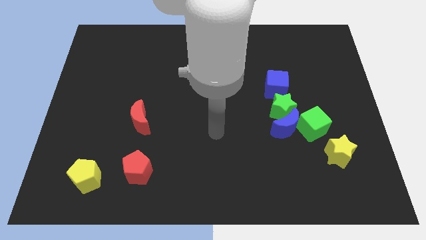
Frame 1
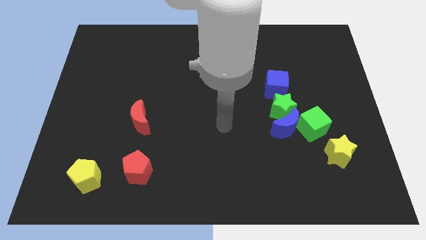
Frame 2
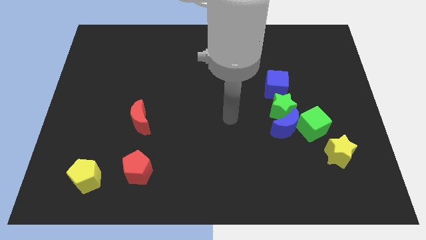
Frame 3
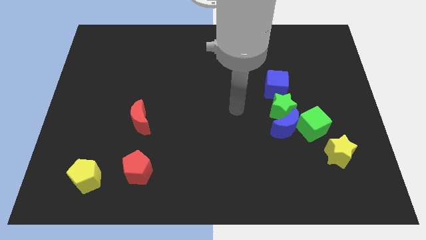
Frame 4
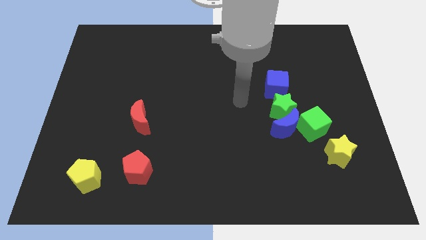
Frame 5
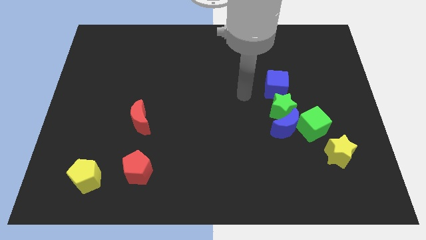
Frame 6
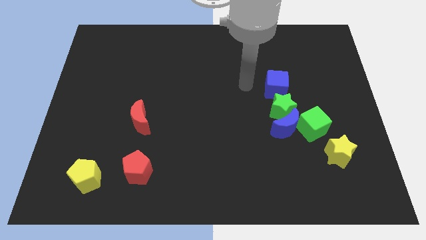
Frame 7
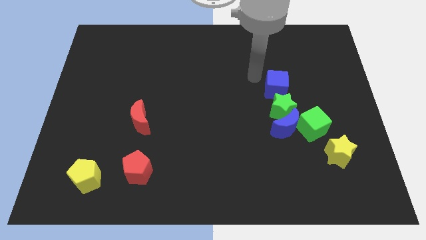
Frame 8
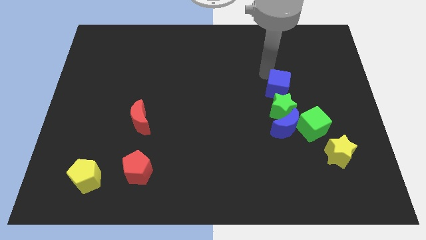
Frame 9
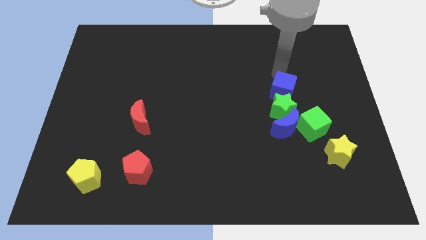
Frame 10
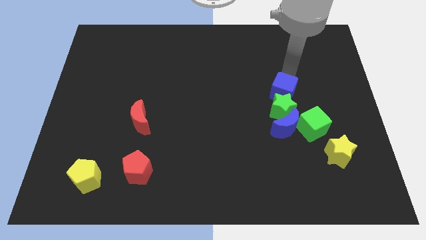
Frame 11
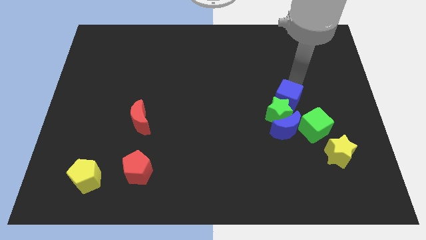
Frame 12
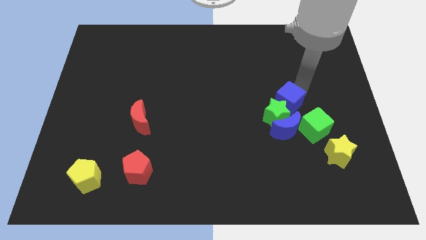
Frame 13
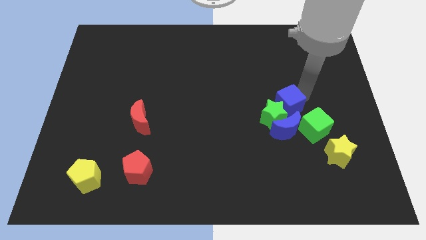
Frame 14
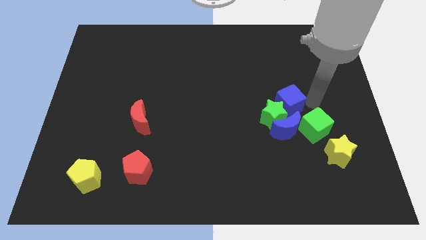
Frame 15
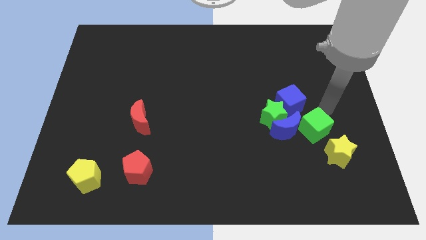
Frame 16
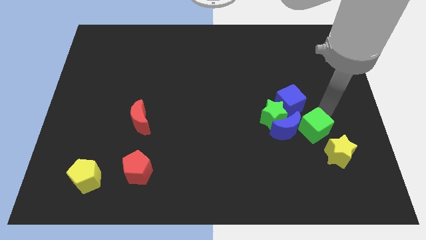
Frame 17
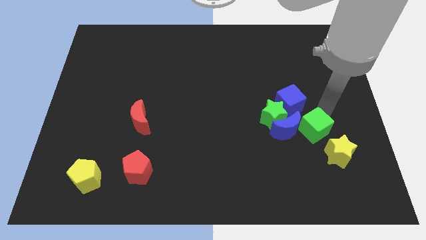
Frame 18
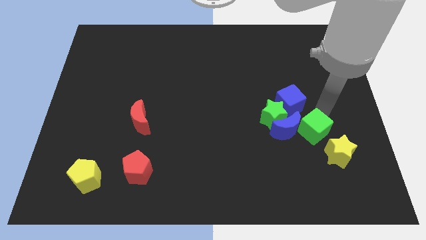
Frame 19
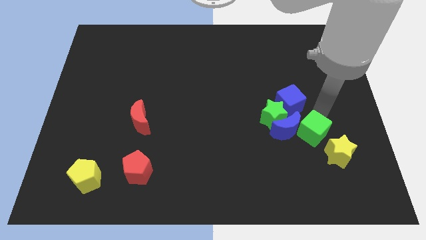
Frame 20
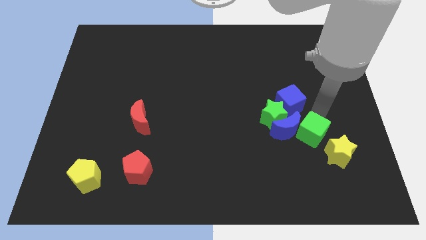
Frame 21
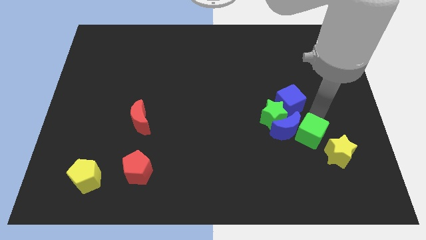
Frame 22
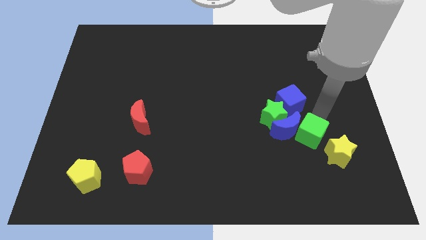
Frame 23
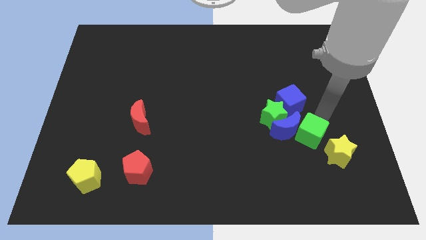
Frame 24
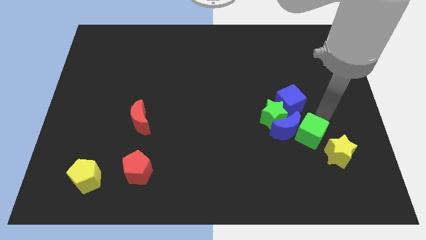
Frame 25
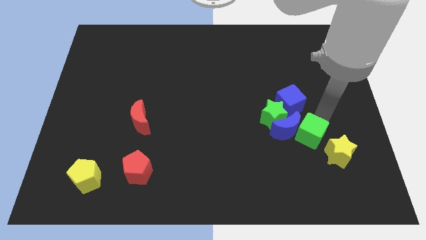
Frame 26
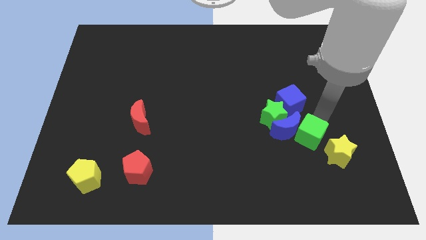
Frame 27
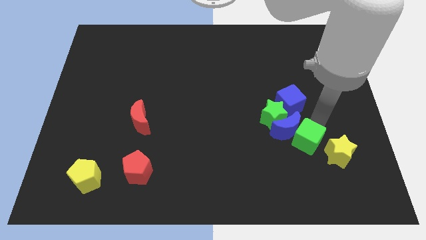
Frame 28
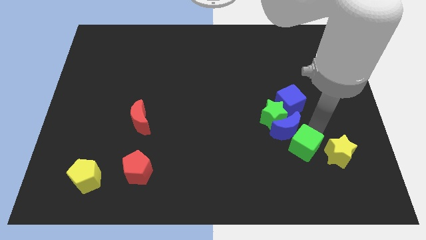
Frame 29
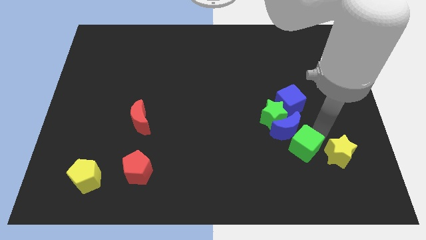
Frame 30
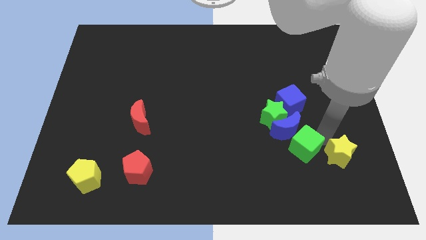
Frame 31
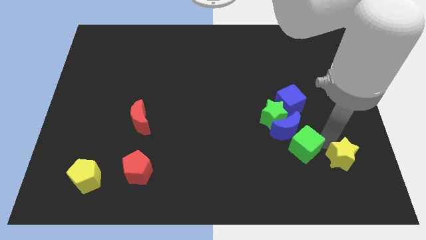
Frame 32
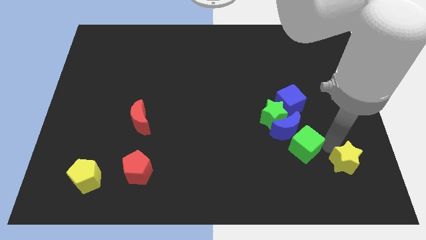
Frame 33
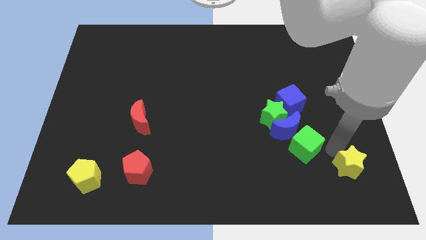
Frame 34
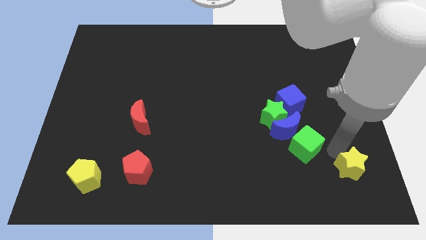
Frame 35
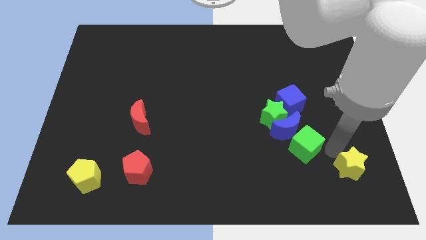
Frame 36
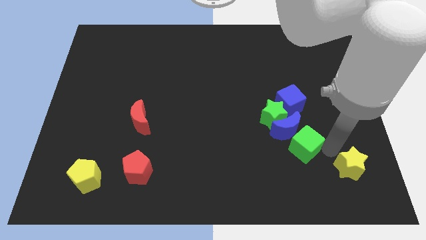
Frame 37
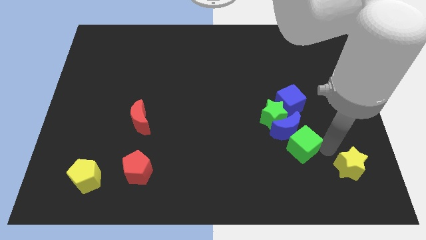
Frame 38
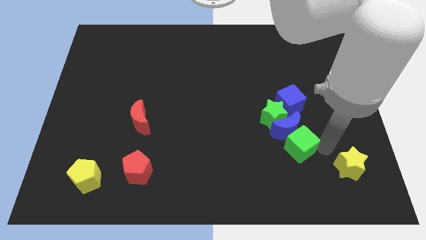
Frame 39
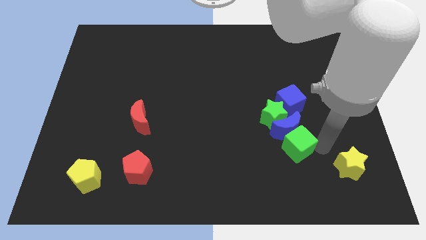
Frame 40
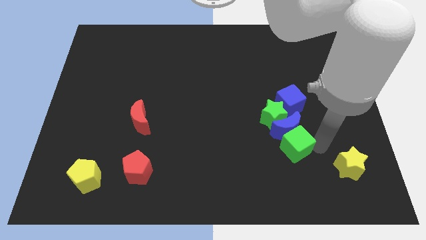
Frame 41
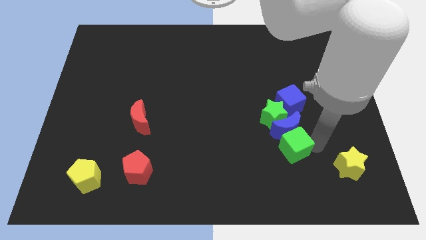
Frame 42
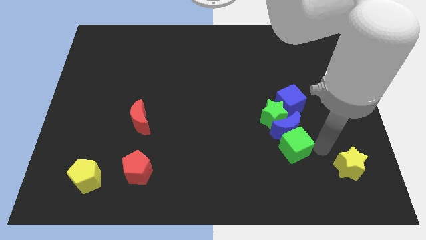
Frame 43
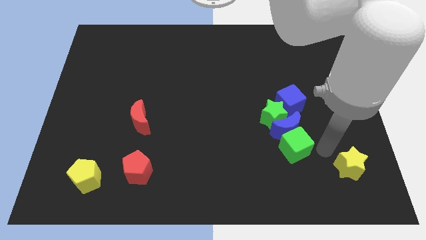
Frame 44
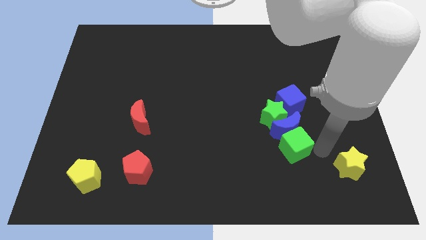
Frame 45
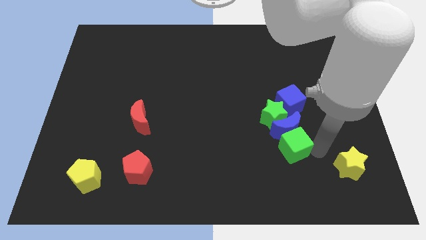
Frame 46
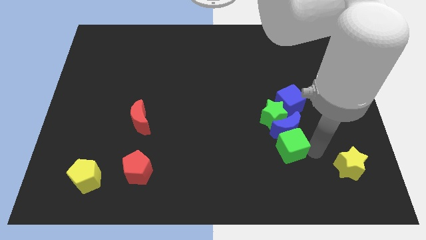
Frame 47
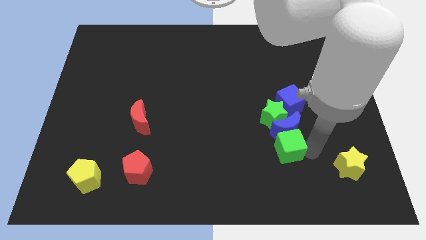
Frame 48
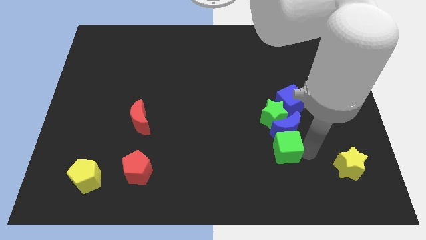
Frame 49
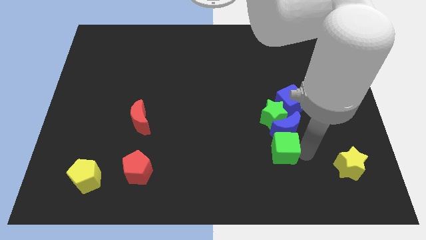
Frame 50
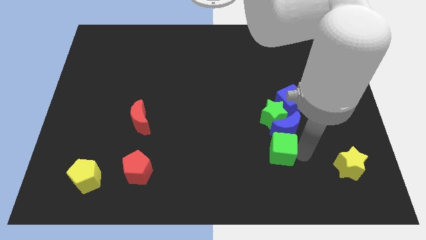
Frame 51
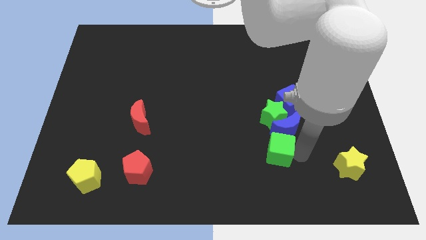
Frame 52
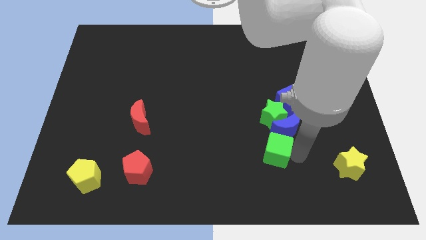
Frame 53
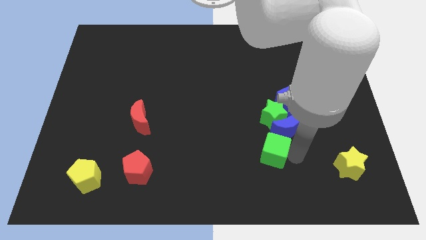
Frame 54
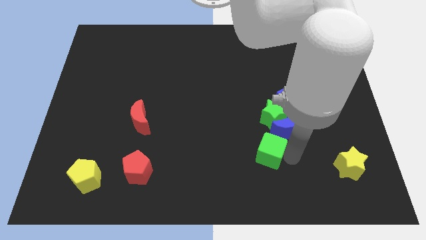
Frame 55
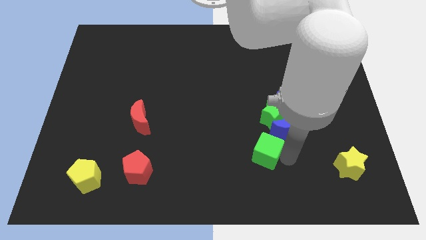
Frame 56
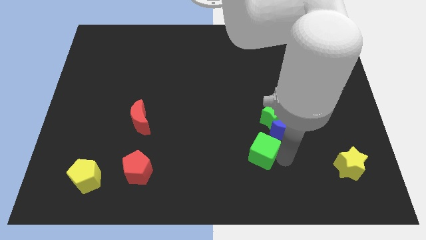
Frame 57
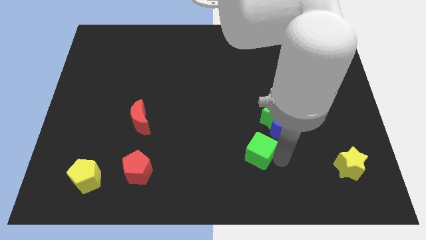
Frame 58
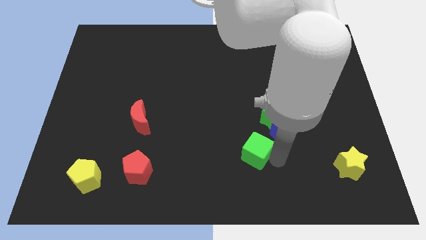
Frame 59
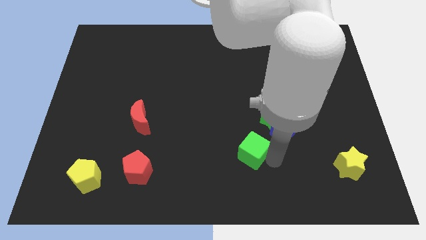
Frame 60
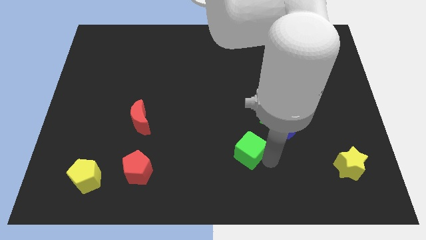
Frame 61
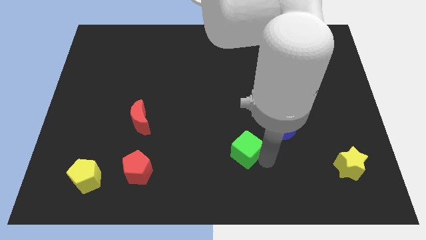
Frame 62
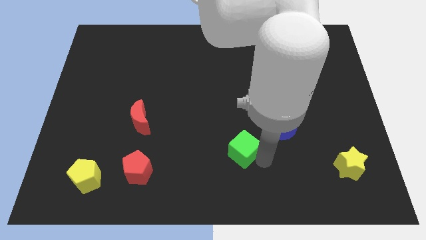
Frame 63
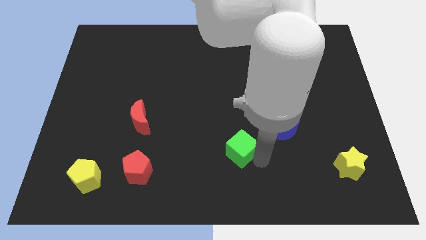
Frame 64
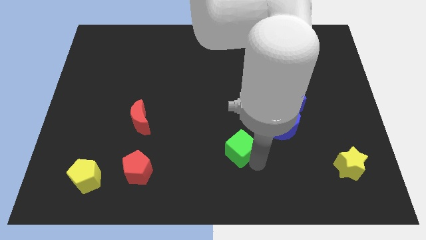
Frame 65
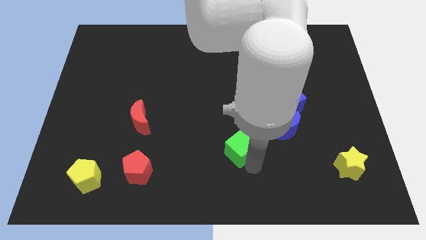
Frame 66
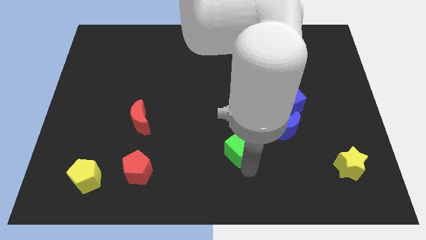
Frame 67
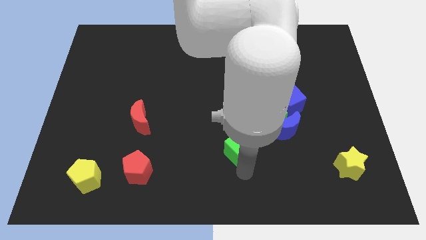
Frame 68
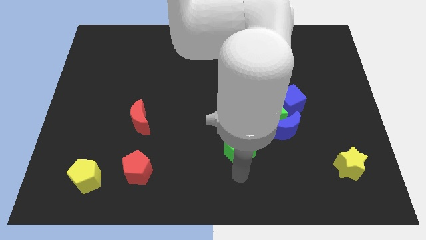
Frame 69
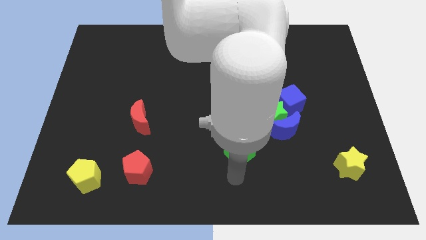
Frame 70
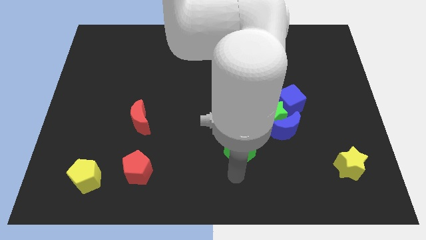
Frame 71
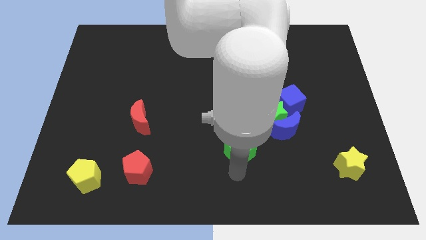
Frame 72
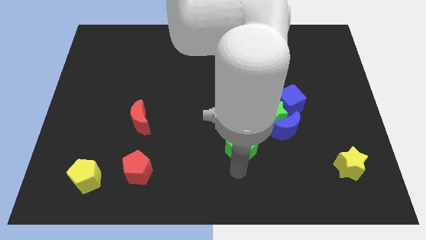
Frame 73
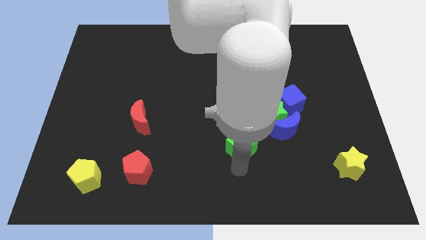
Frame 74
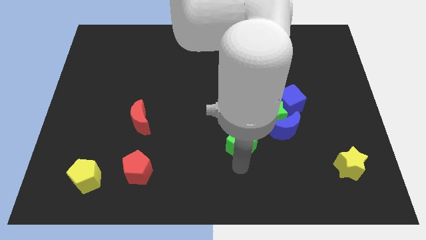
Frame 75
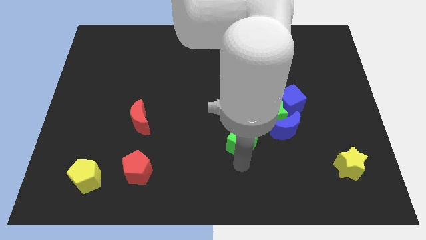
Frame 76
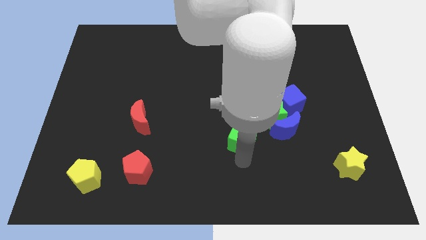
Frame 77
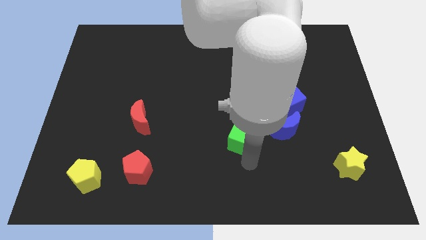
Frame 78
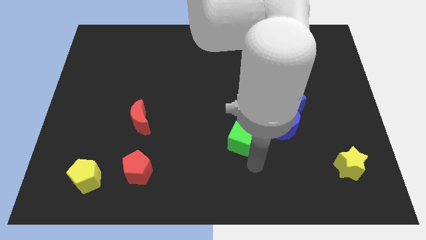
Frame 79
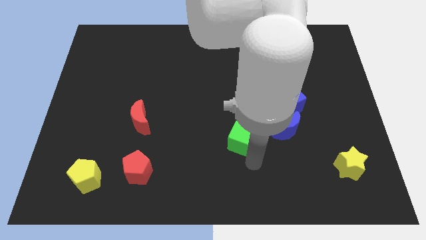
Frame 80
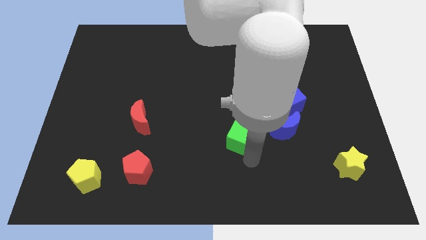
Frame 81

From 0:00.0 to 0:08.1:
put the green cube to the center
